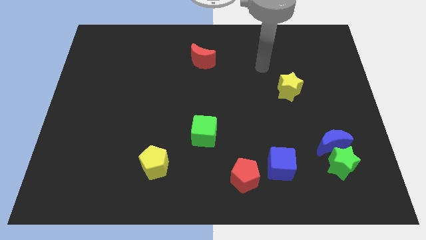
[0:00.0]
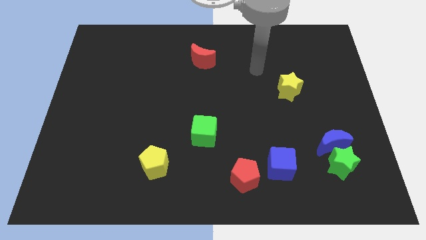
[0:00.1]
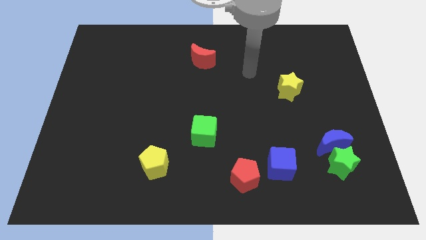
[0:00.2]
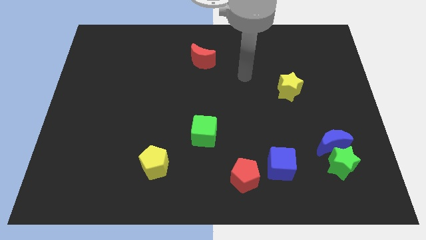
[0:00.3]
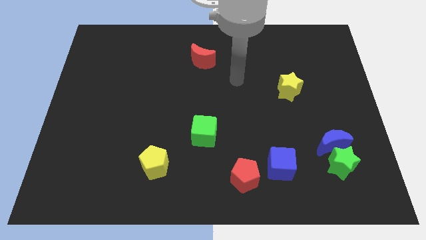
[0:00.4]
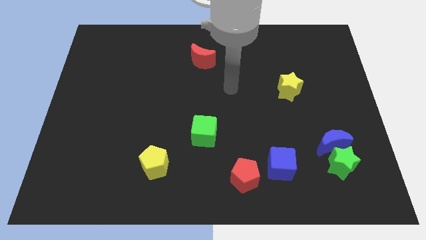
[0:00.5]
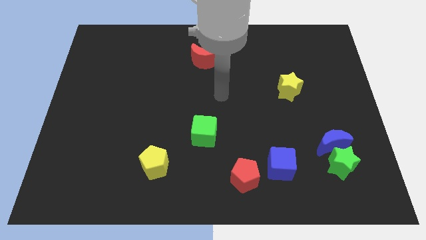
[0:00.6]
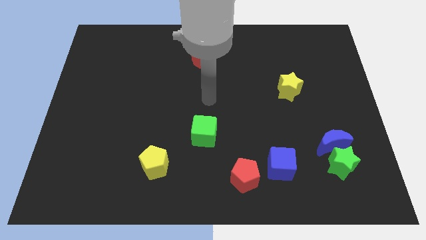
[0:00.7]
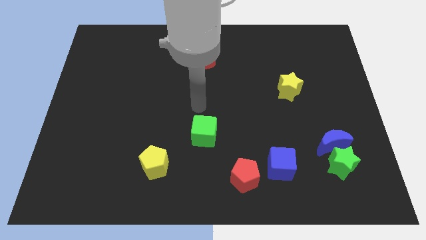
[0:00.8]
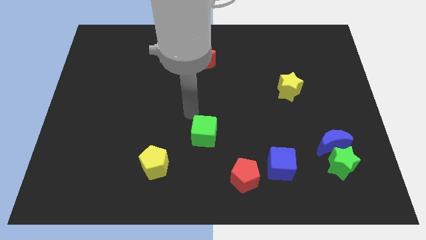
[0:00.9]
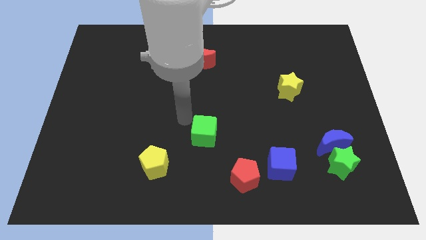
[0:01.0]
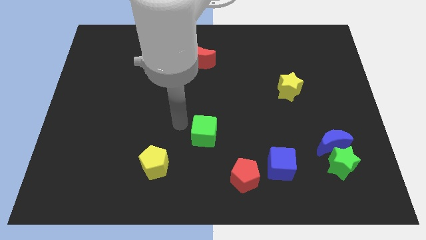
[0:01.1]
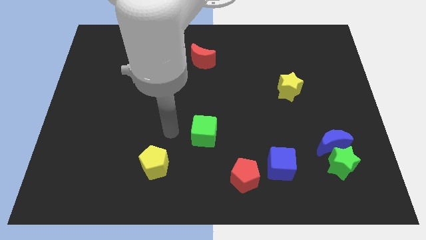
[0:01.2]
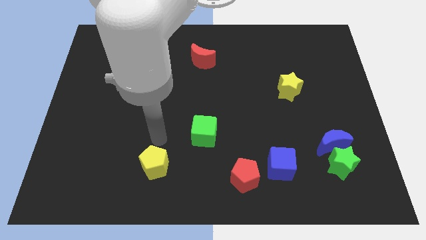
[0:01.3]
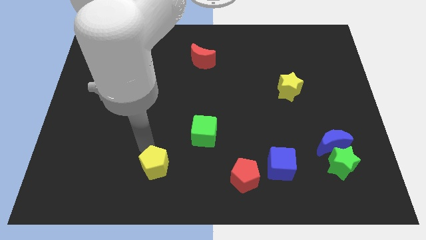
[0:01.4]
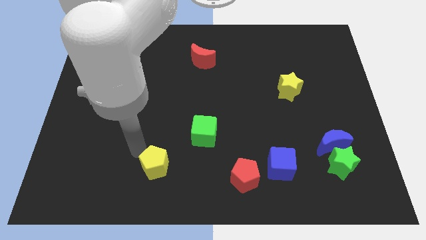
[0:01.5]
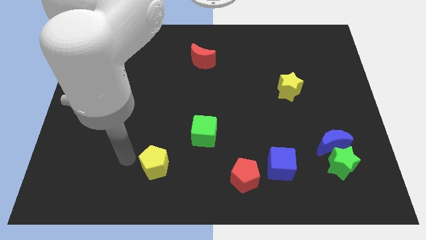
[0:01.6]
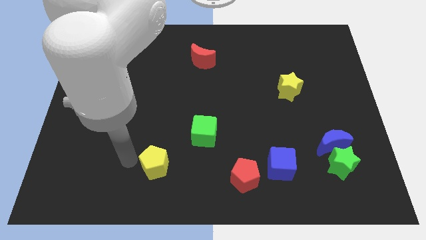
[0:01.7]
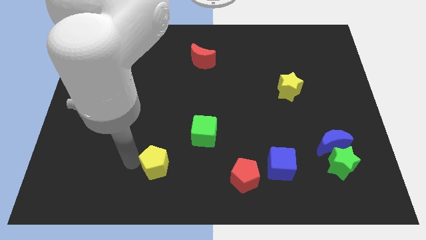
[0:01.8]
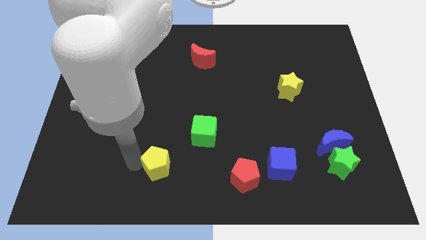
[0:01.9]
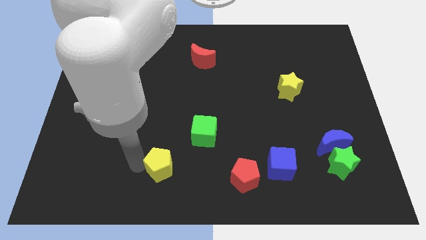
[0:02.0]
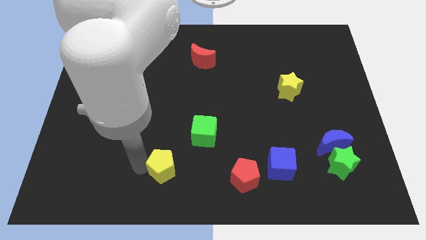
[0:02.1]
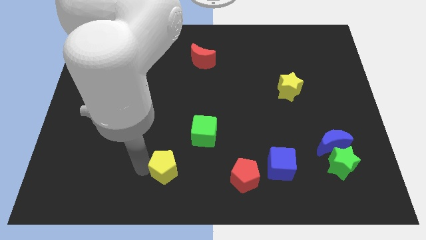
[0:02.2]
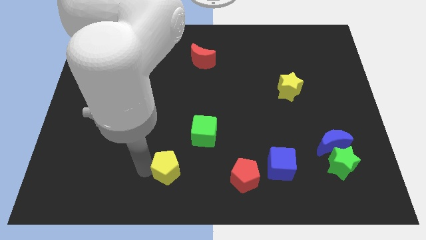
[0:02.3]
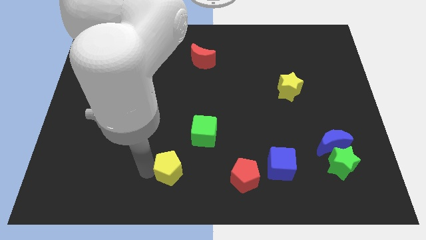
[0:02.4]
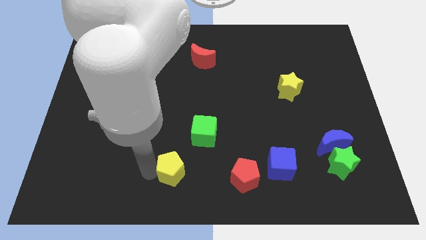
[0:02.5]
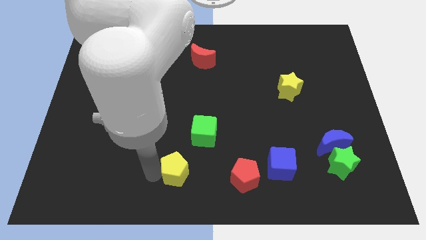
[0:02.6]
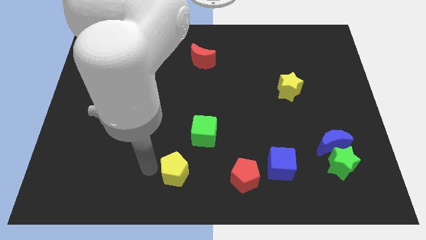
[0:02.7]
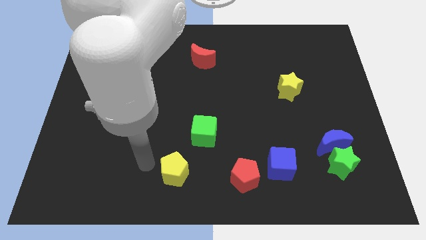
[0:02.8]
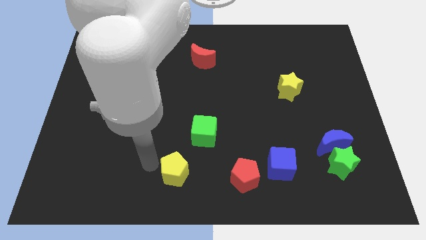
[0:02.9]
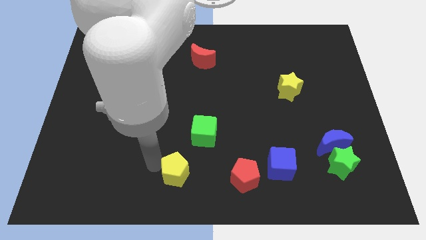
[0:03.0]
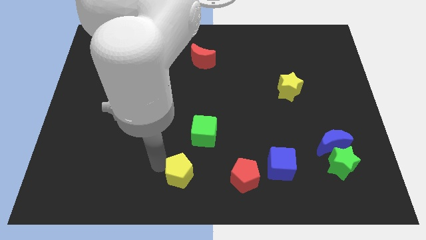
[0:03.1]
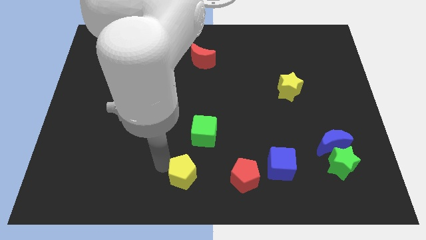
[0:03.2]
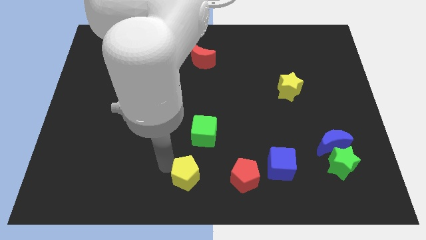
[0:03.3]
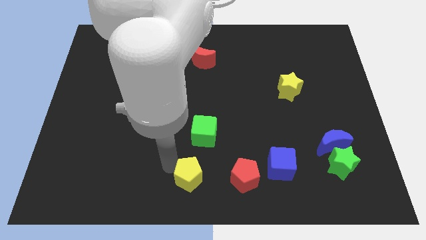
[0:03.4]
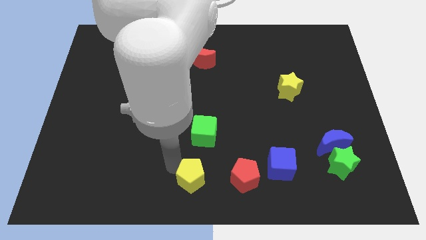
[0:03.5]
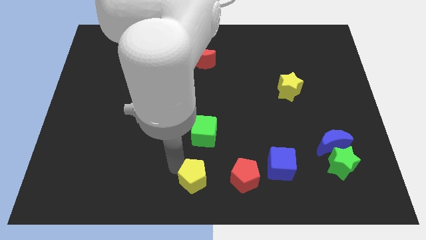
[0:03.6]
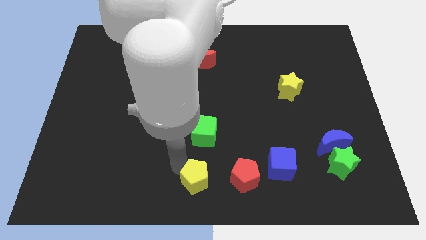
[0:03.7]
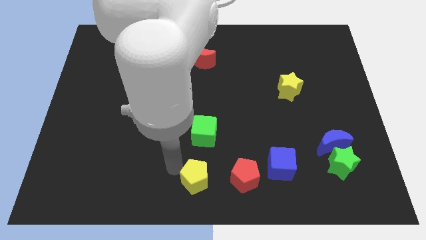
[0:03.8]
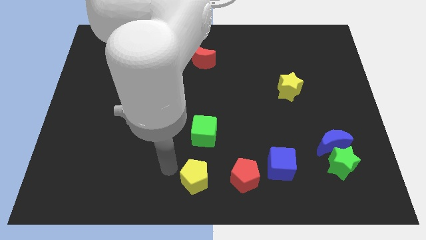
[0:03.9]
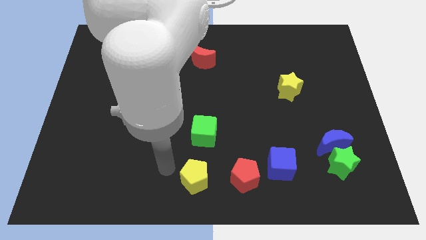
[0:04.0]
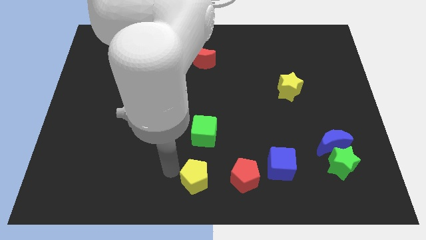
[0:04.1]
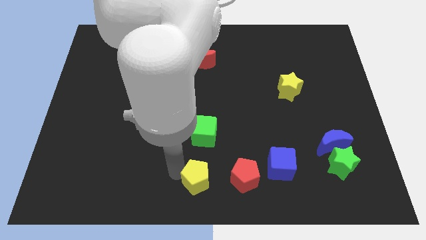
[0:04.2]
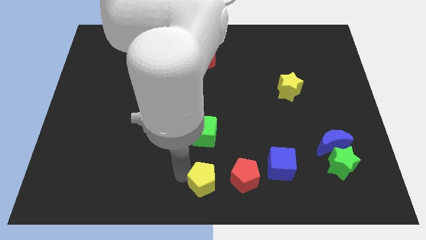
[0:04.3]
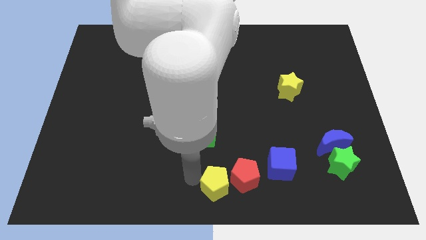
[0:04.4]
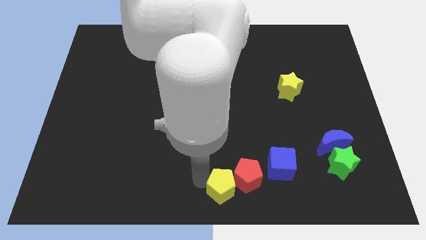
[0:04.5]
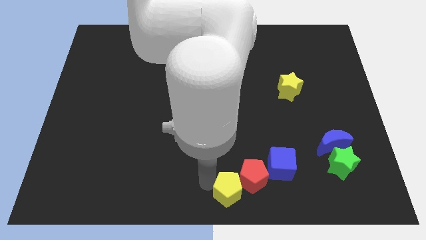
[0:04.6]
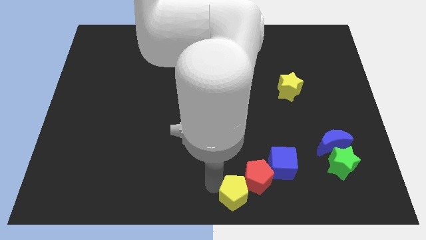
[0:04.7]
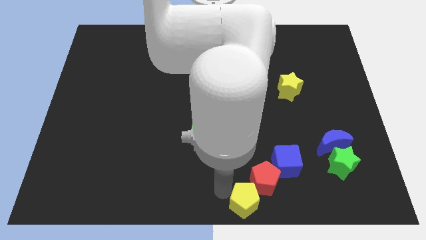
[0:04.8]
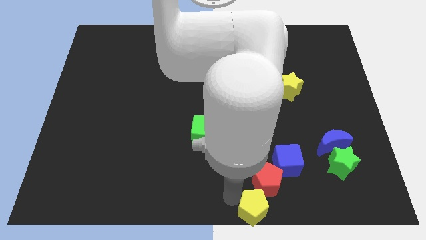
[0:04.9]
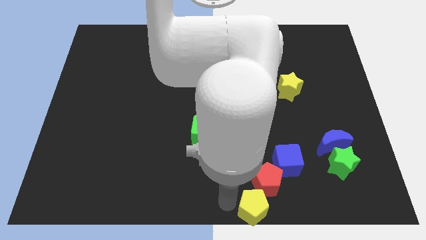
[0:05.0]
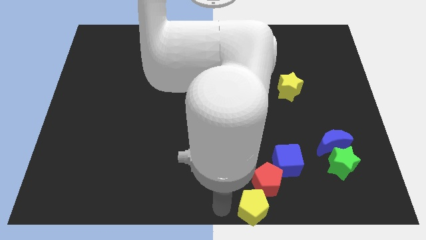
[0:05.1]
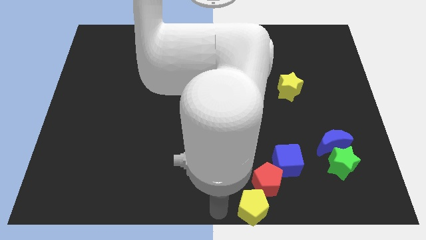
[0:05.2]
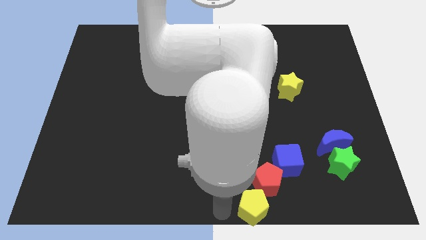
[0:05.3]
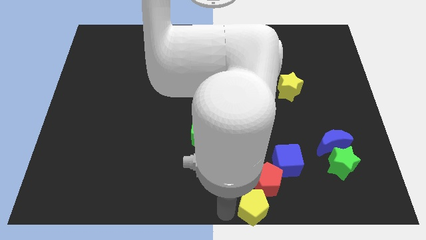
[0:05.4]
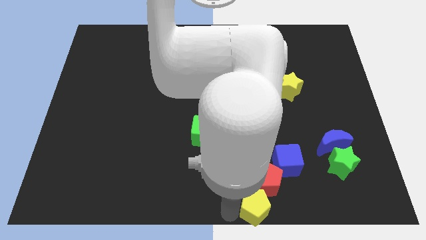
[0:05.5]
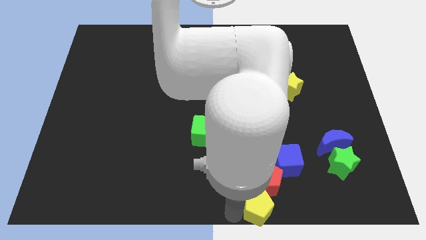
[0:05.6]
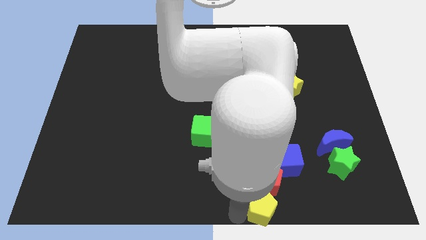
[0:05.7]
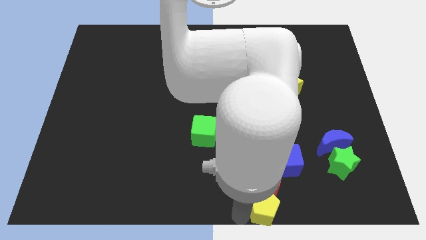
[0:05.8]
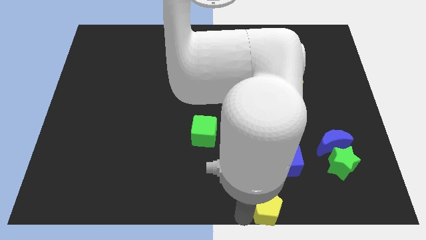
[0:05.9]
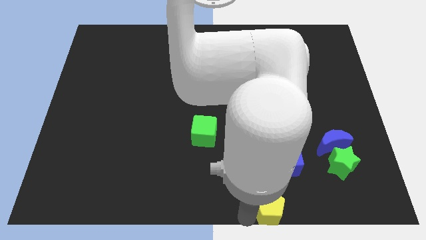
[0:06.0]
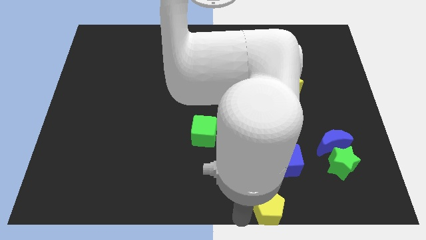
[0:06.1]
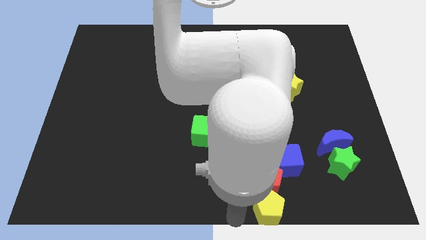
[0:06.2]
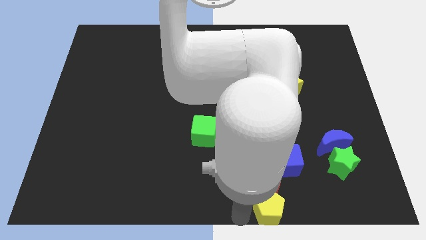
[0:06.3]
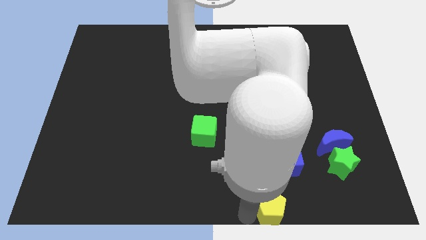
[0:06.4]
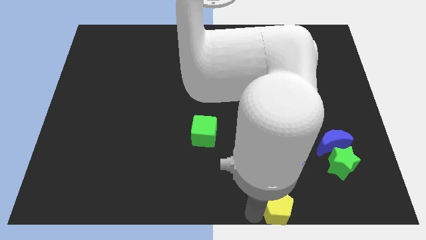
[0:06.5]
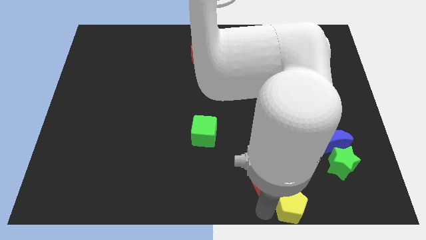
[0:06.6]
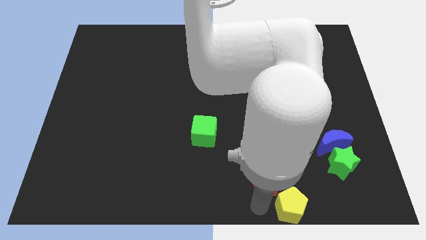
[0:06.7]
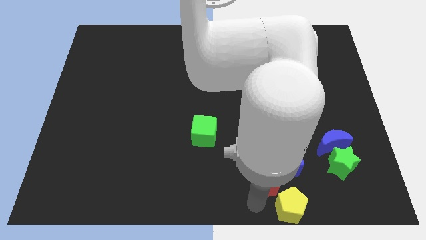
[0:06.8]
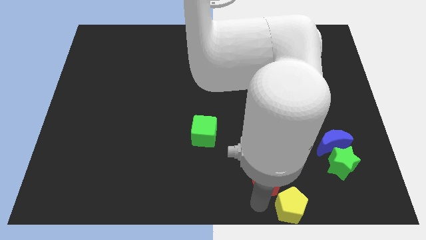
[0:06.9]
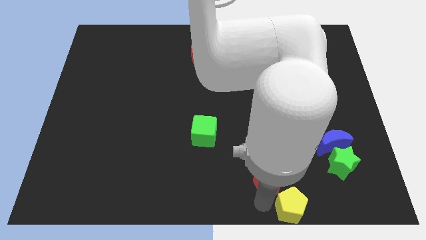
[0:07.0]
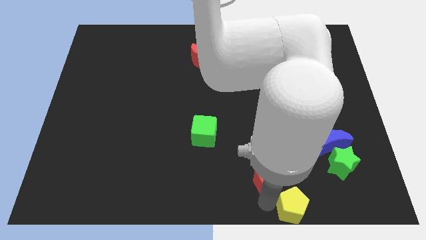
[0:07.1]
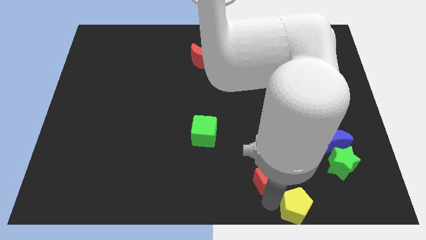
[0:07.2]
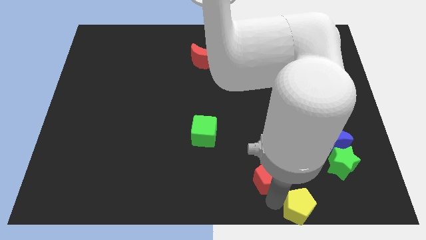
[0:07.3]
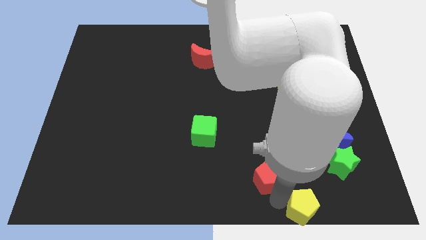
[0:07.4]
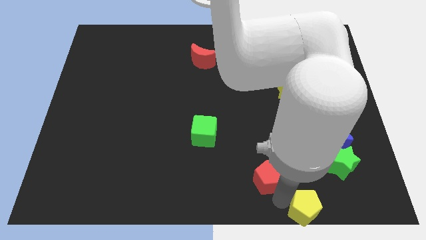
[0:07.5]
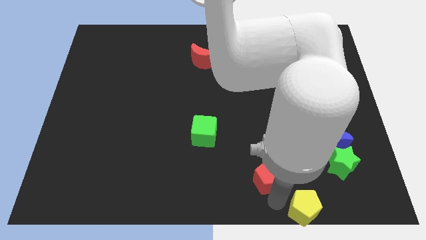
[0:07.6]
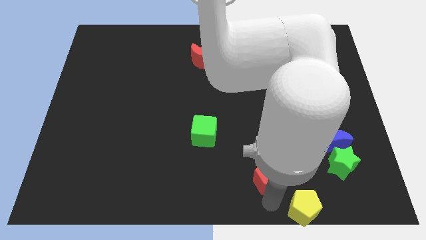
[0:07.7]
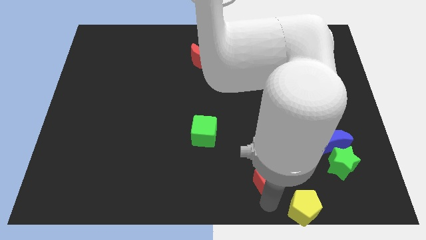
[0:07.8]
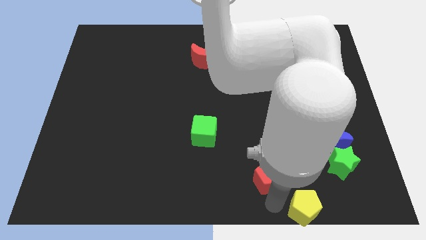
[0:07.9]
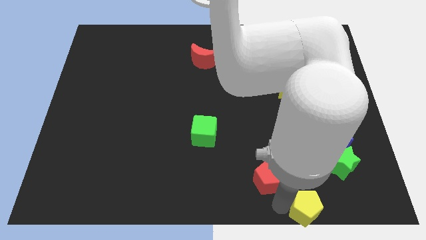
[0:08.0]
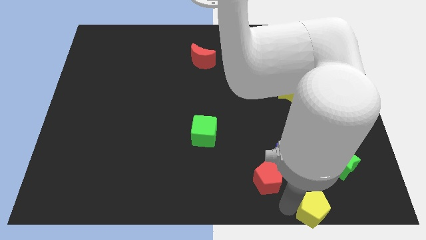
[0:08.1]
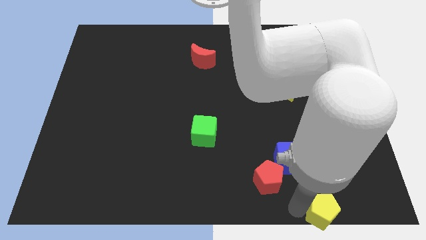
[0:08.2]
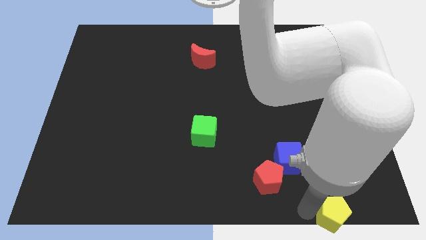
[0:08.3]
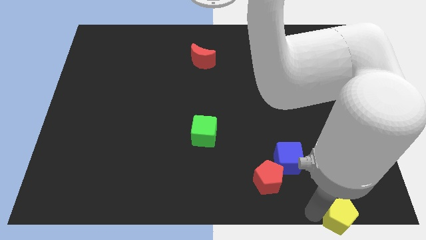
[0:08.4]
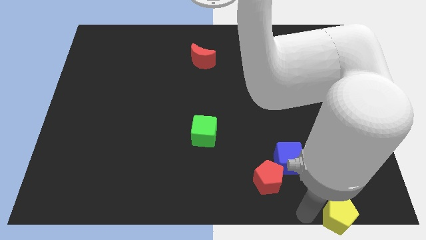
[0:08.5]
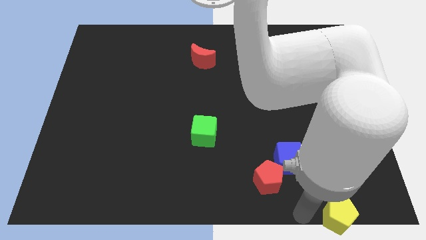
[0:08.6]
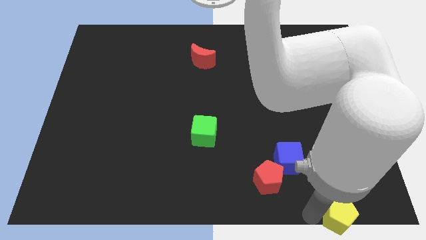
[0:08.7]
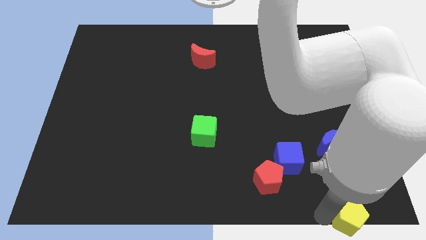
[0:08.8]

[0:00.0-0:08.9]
push the yellow pentagon to the bottom right of the board
